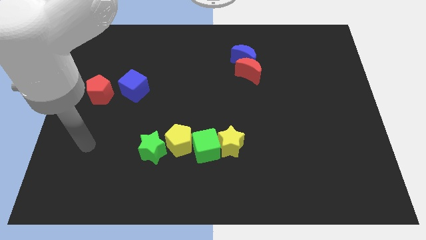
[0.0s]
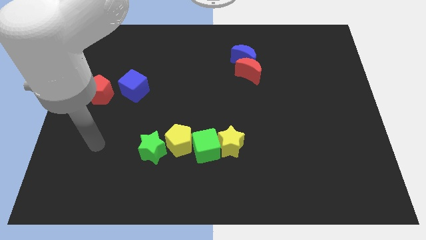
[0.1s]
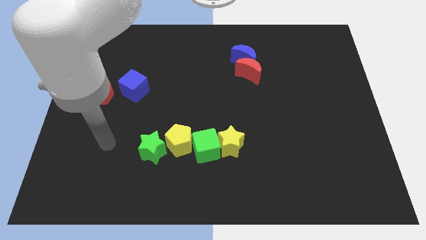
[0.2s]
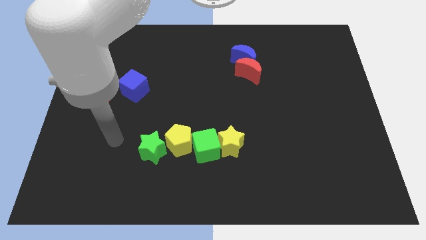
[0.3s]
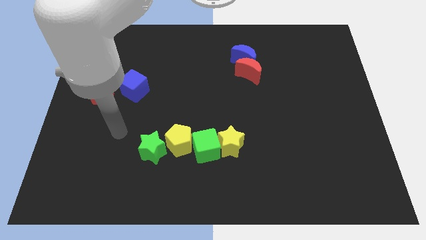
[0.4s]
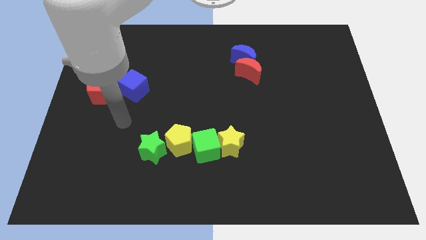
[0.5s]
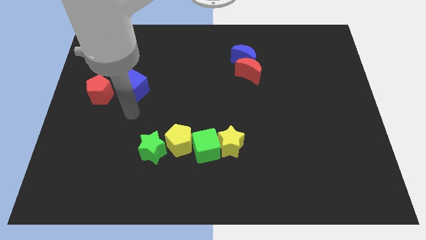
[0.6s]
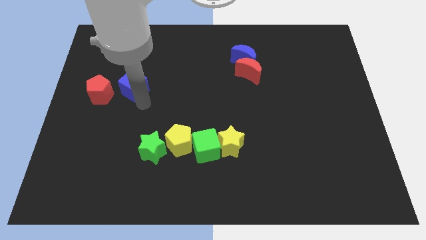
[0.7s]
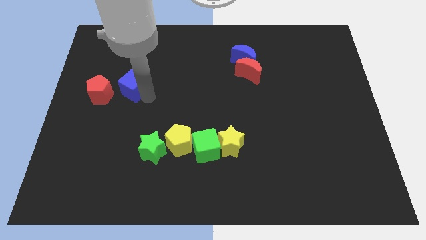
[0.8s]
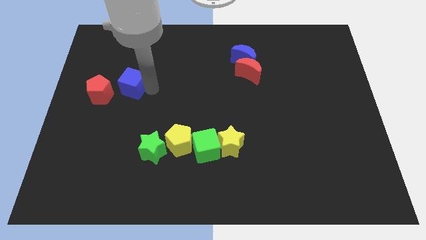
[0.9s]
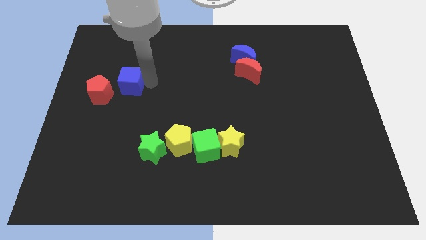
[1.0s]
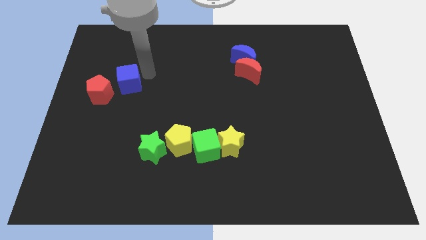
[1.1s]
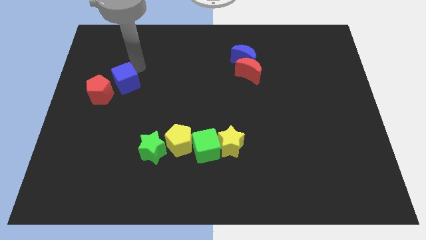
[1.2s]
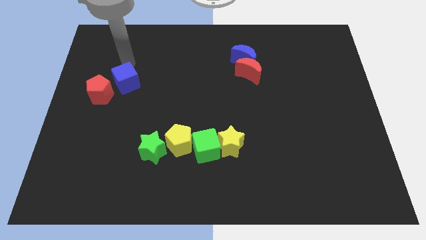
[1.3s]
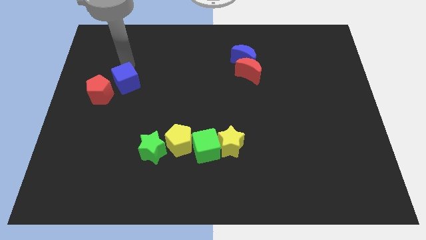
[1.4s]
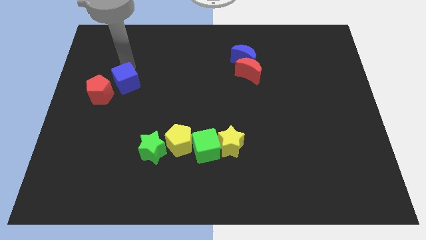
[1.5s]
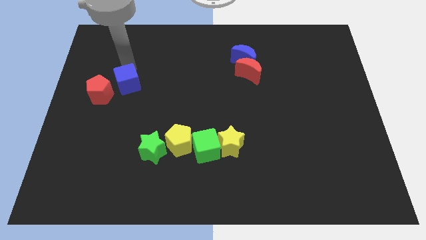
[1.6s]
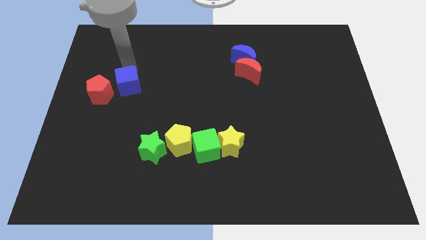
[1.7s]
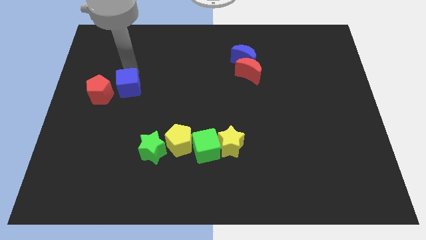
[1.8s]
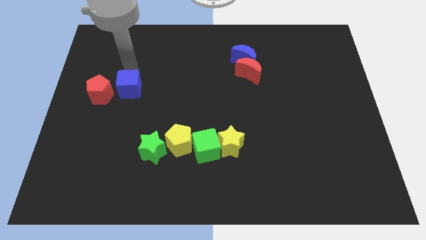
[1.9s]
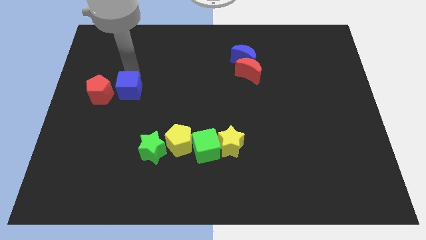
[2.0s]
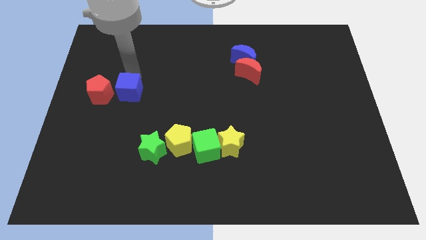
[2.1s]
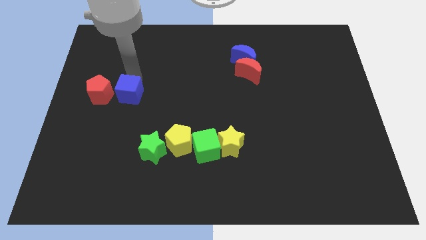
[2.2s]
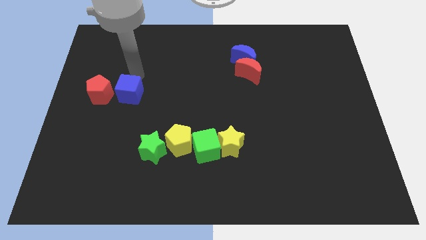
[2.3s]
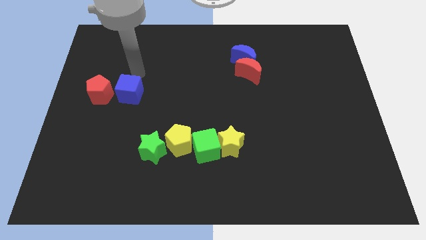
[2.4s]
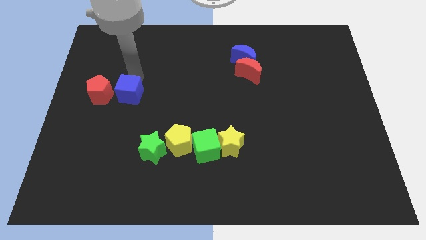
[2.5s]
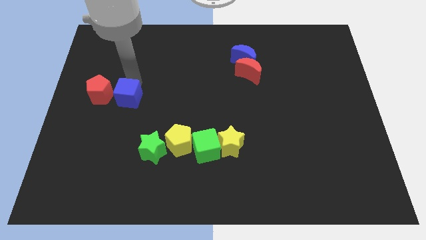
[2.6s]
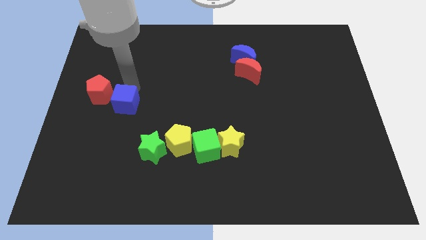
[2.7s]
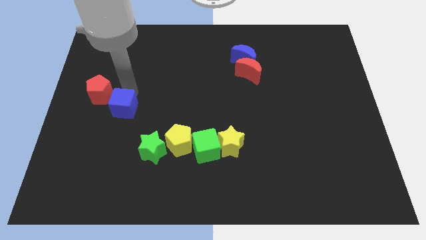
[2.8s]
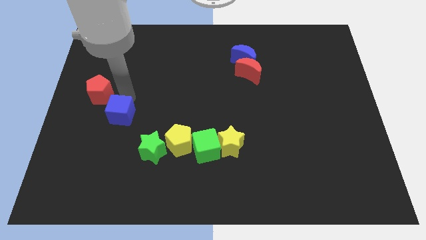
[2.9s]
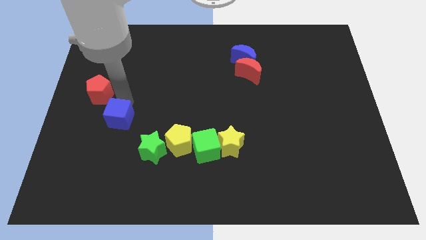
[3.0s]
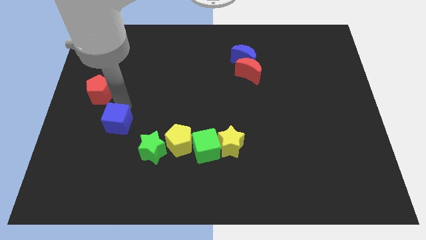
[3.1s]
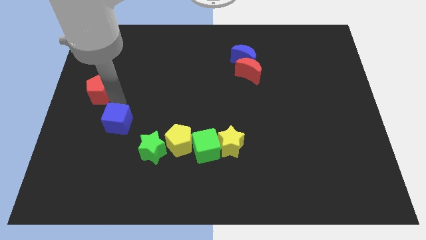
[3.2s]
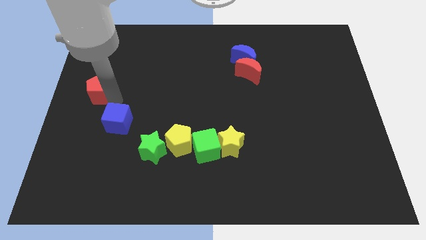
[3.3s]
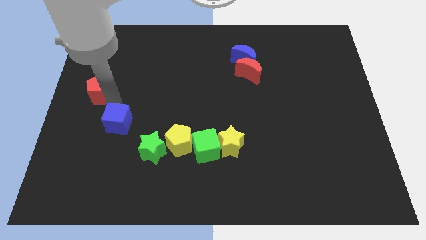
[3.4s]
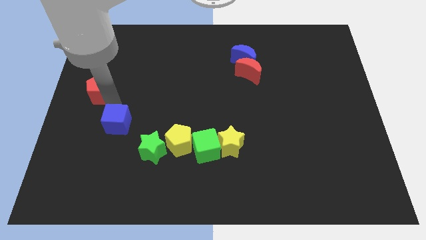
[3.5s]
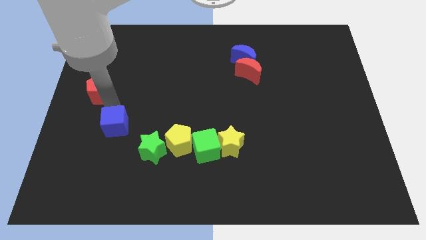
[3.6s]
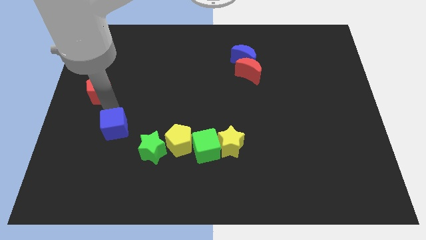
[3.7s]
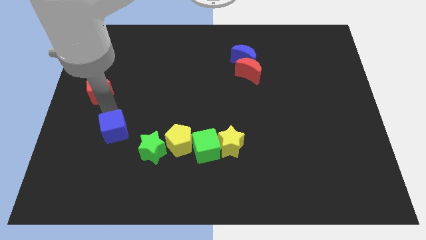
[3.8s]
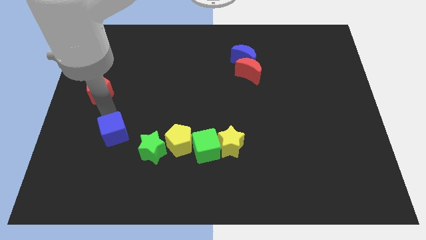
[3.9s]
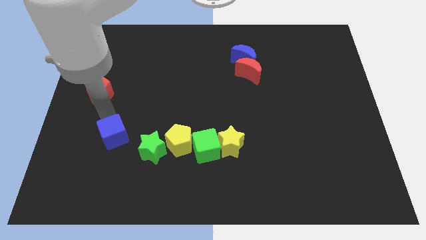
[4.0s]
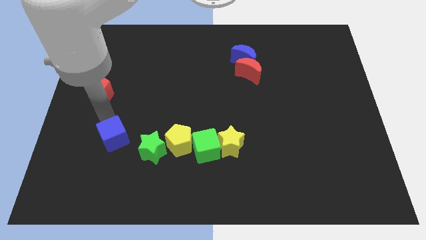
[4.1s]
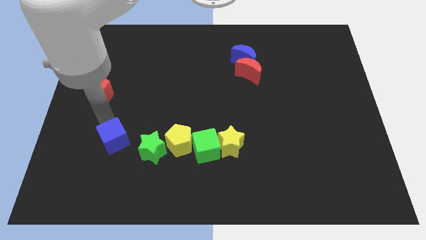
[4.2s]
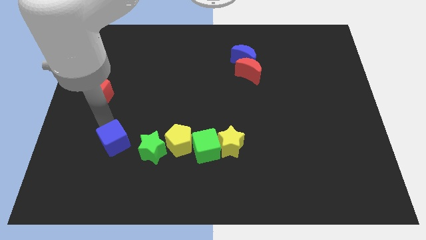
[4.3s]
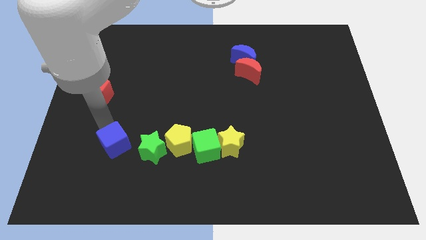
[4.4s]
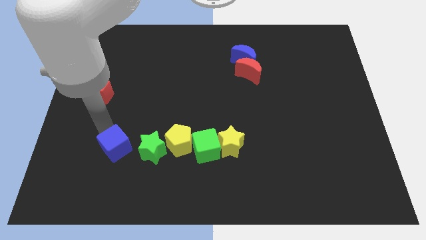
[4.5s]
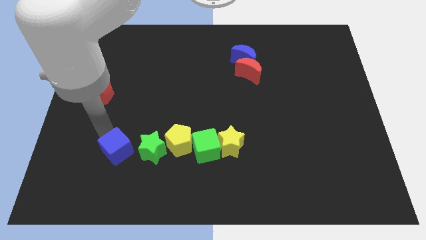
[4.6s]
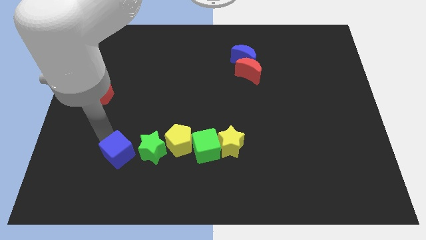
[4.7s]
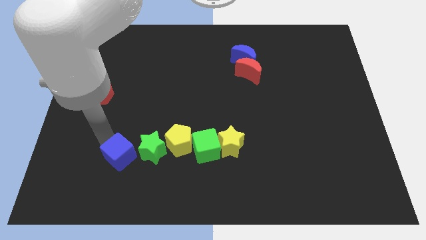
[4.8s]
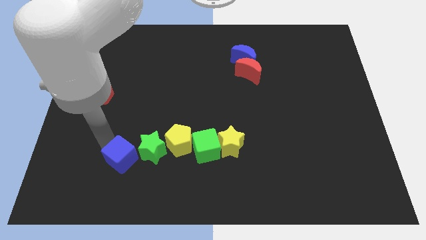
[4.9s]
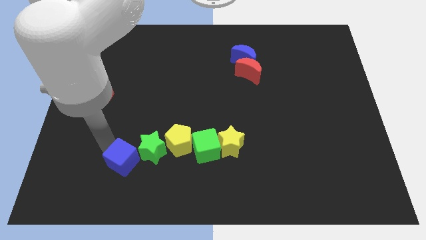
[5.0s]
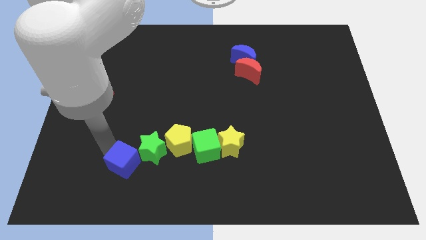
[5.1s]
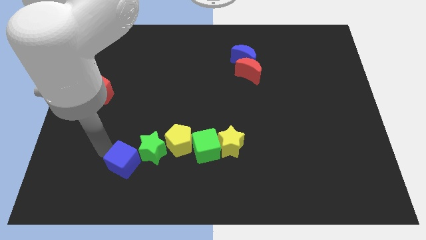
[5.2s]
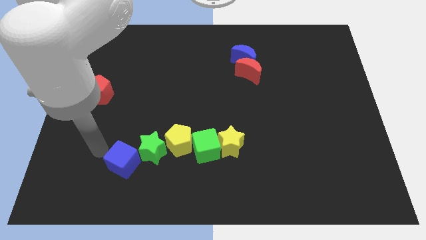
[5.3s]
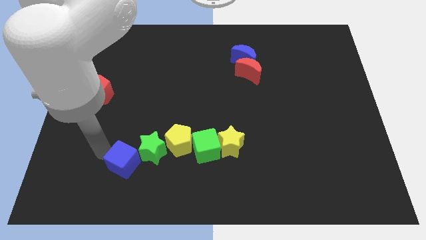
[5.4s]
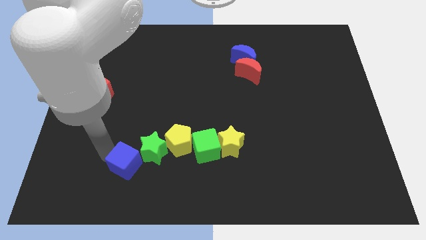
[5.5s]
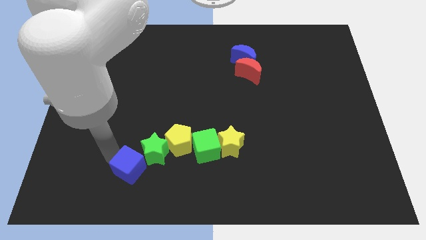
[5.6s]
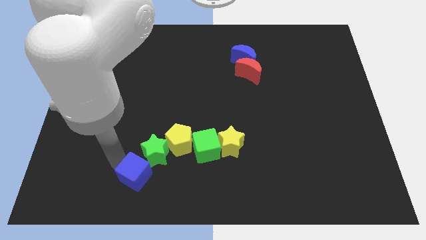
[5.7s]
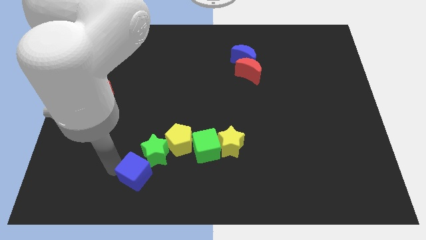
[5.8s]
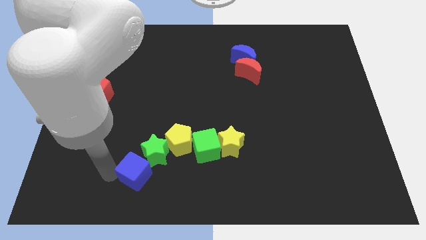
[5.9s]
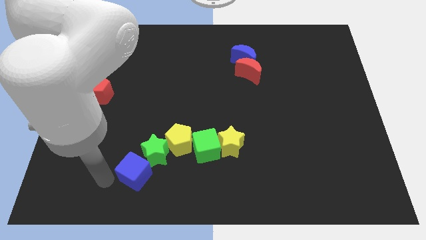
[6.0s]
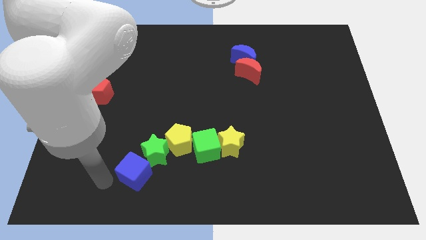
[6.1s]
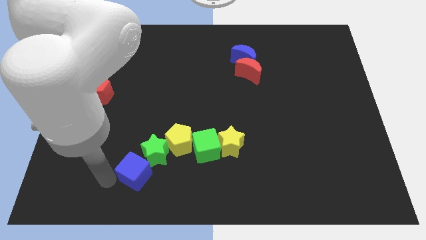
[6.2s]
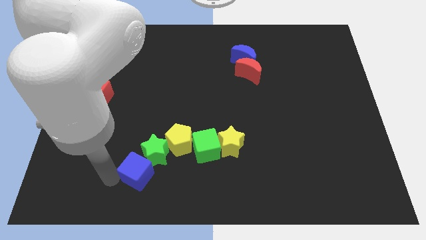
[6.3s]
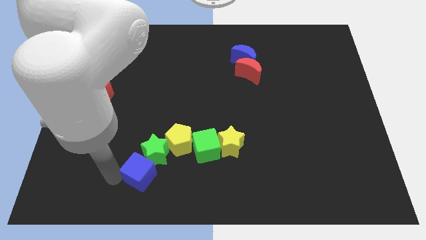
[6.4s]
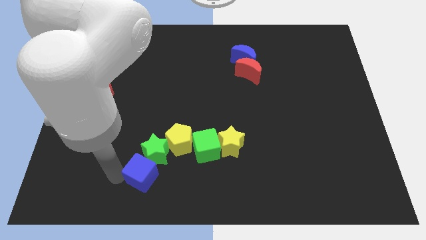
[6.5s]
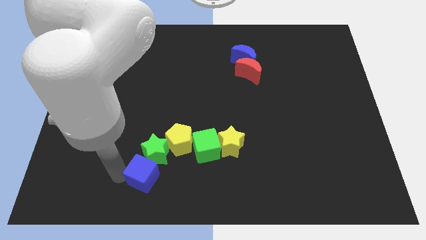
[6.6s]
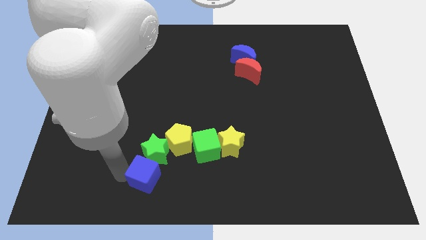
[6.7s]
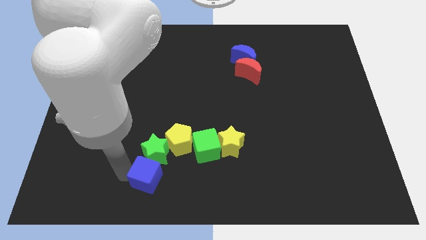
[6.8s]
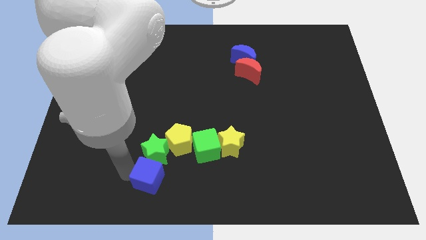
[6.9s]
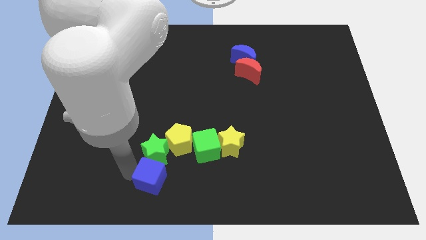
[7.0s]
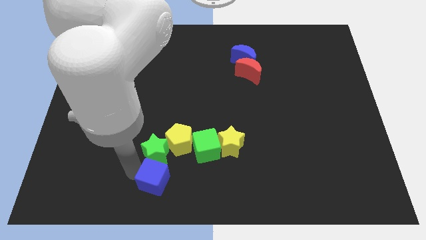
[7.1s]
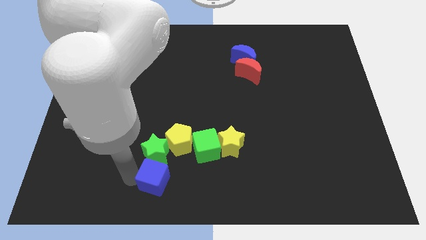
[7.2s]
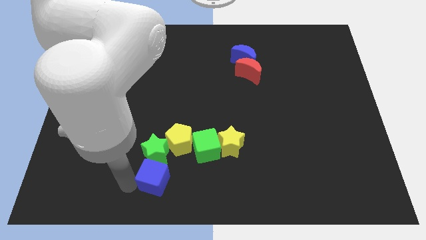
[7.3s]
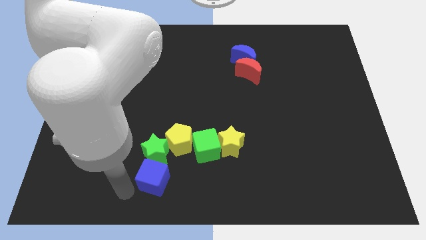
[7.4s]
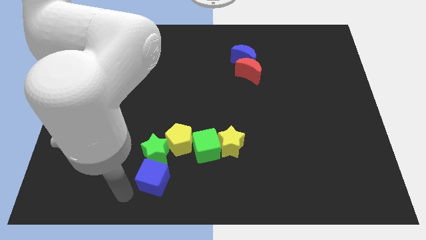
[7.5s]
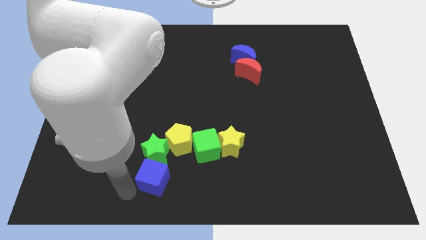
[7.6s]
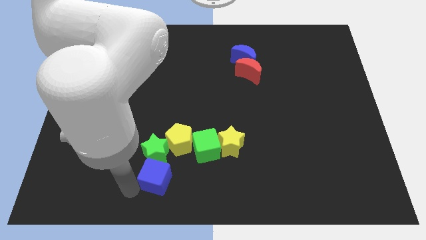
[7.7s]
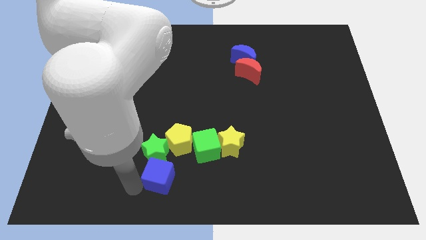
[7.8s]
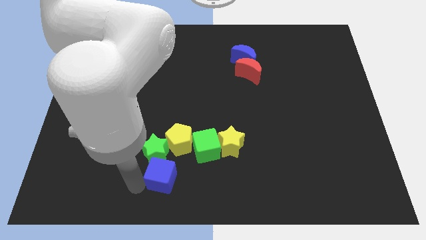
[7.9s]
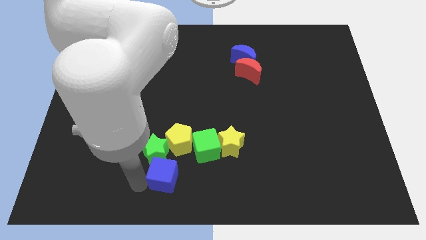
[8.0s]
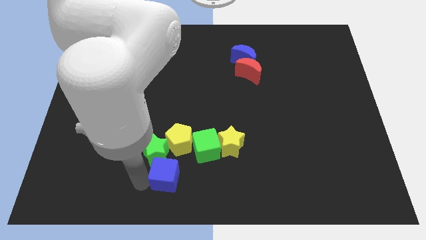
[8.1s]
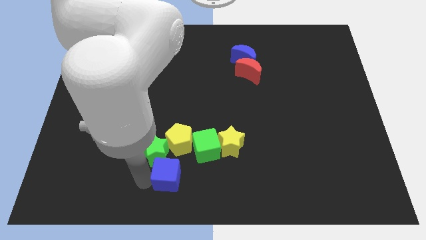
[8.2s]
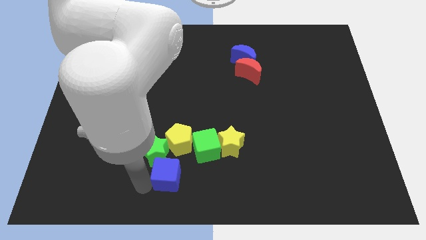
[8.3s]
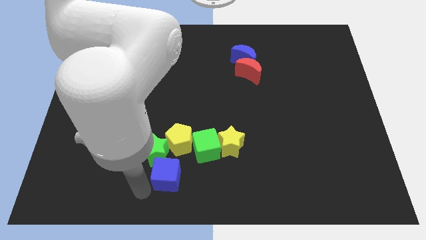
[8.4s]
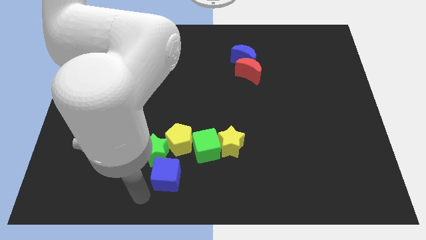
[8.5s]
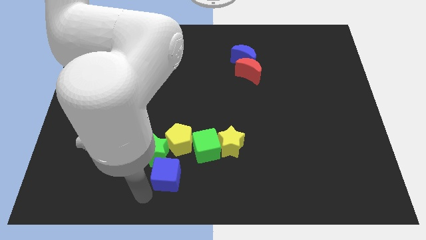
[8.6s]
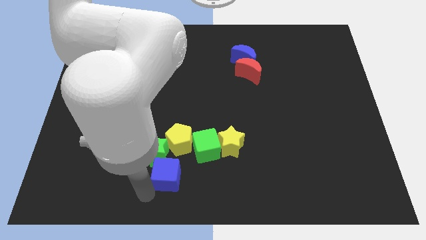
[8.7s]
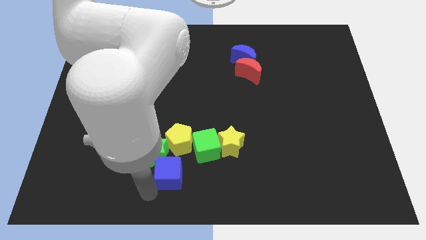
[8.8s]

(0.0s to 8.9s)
move the blue cube downwards and then right
